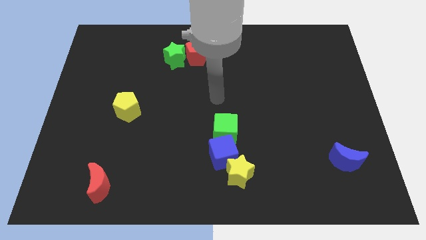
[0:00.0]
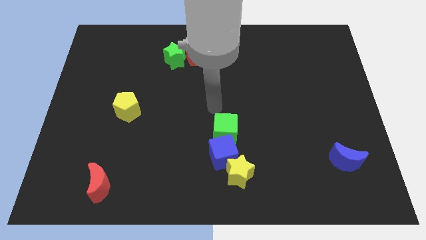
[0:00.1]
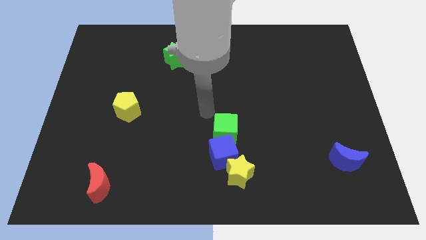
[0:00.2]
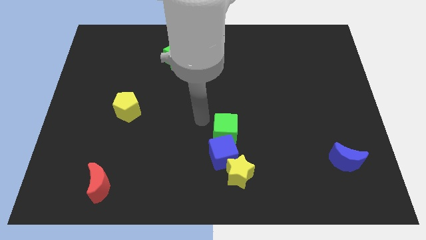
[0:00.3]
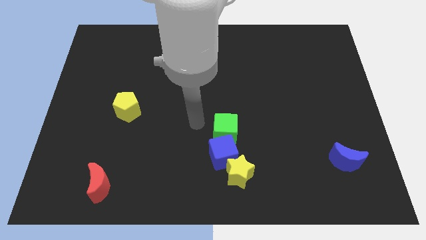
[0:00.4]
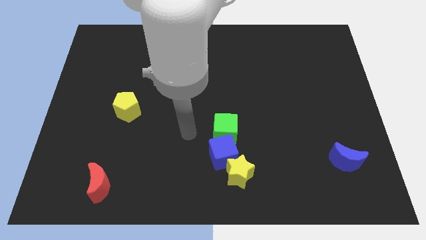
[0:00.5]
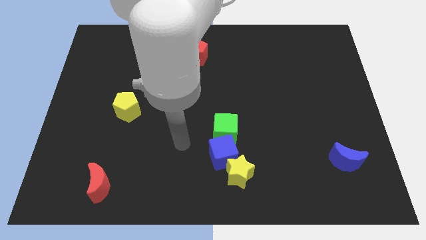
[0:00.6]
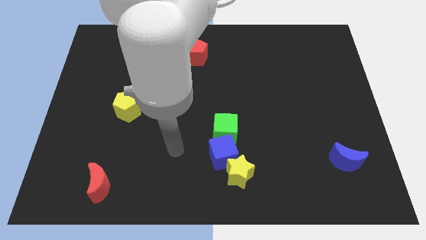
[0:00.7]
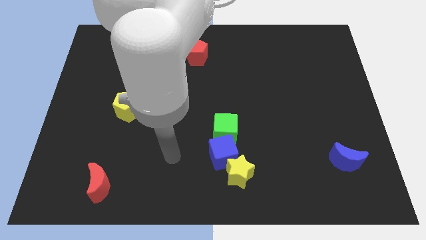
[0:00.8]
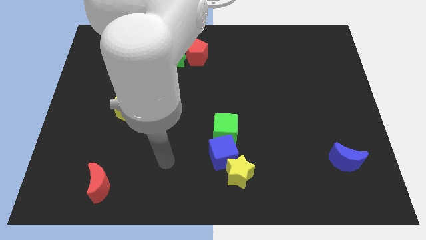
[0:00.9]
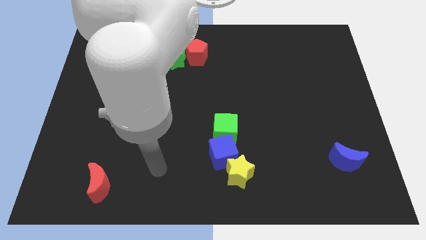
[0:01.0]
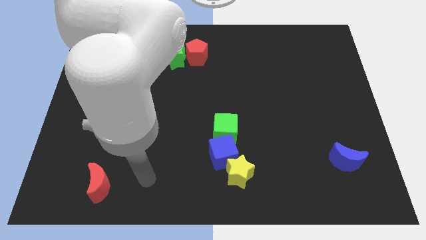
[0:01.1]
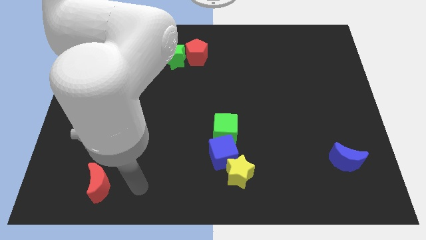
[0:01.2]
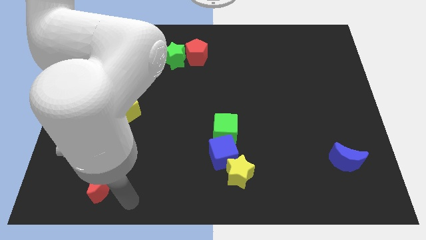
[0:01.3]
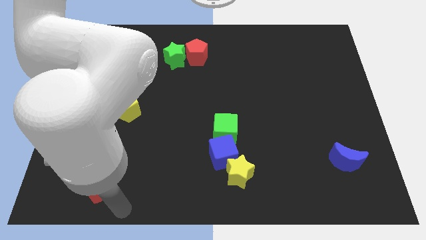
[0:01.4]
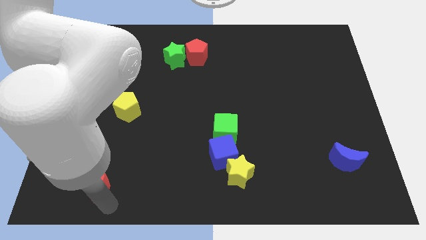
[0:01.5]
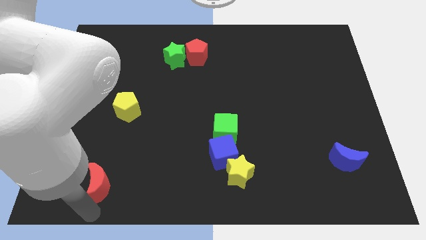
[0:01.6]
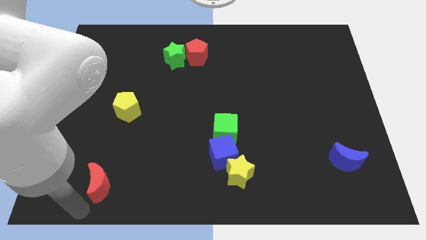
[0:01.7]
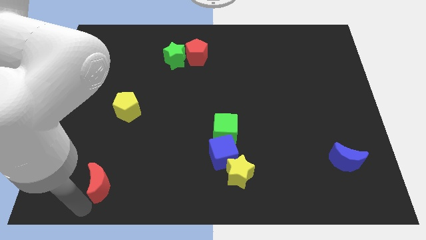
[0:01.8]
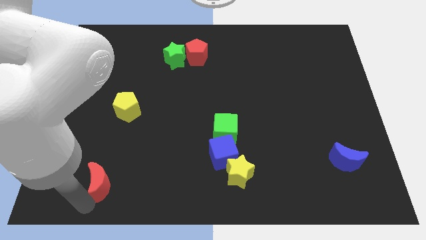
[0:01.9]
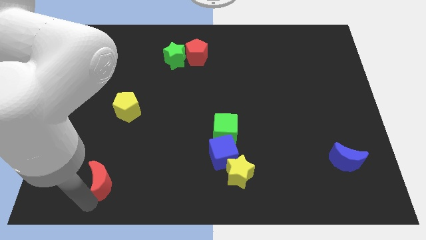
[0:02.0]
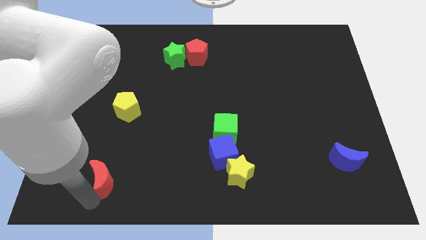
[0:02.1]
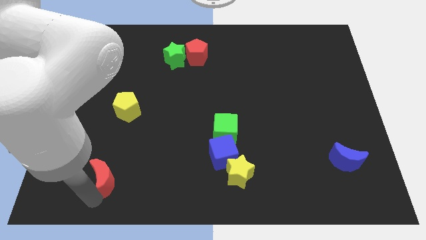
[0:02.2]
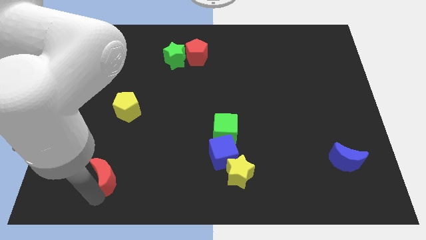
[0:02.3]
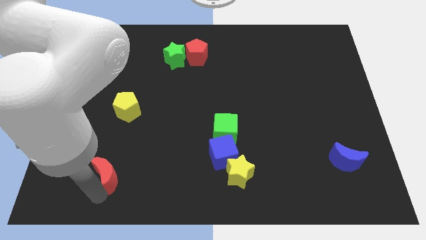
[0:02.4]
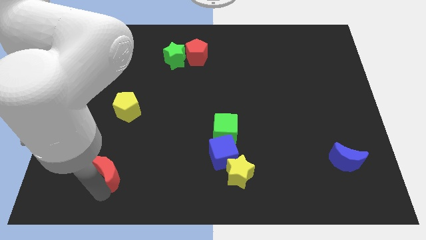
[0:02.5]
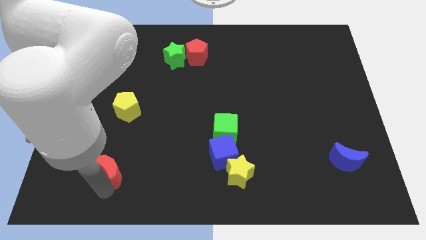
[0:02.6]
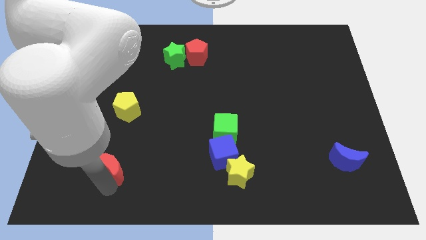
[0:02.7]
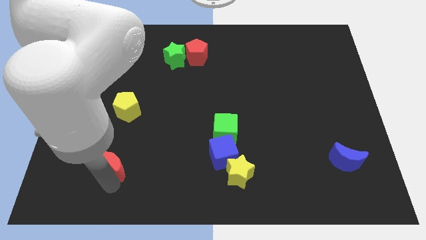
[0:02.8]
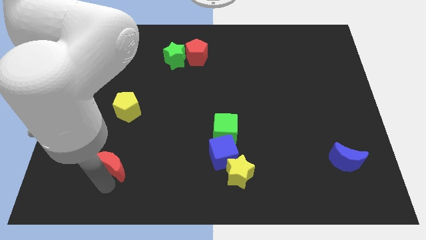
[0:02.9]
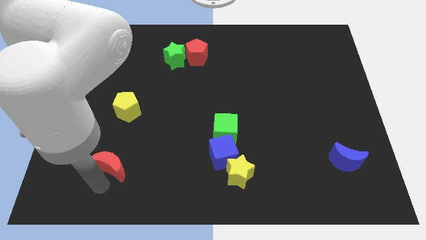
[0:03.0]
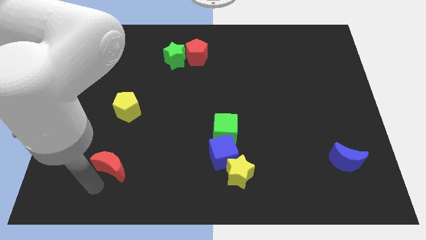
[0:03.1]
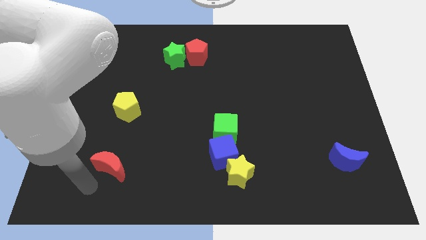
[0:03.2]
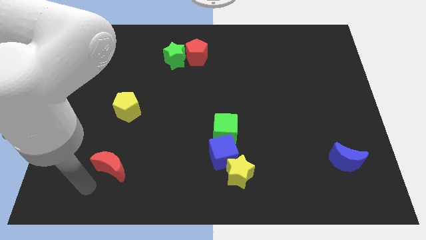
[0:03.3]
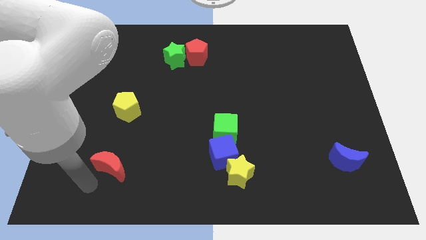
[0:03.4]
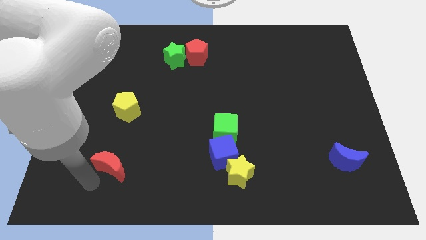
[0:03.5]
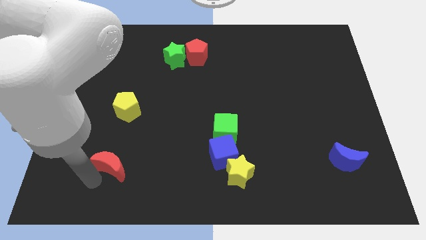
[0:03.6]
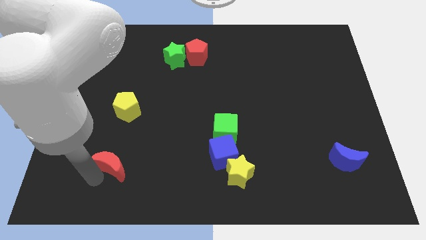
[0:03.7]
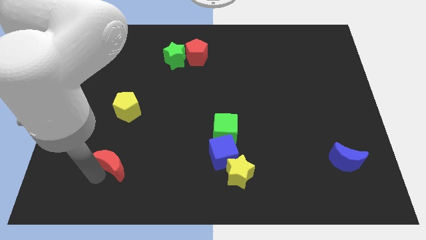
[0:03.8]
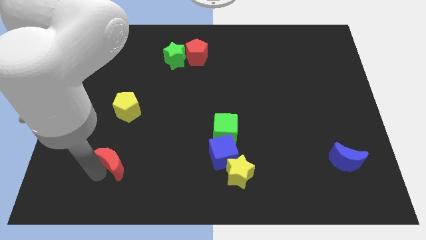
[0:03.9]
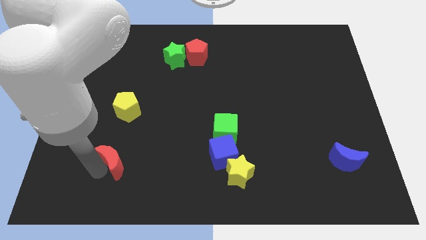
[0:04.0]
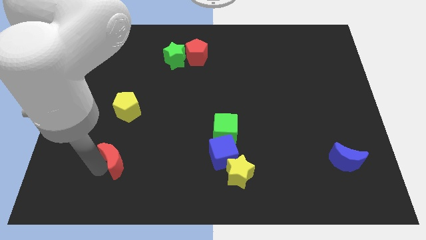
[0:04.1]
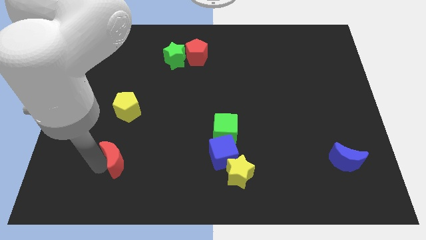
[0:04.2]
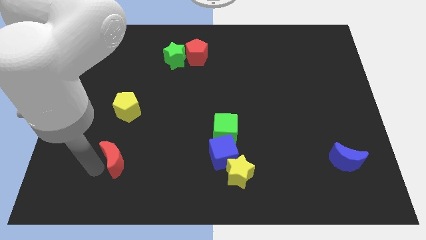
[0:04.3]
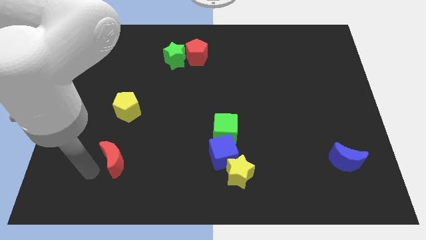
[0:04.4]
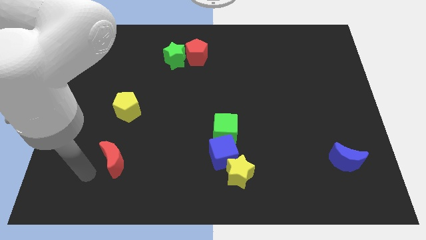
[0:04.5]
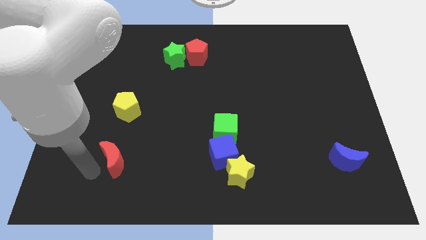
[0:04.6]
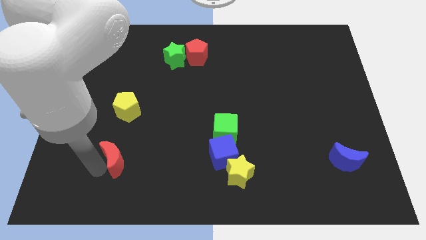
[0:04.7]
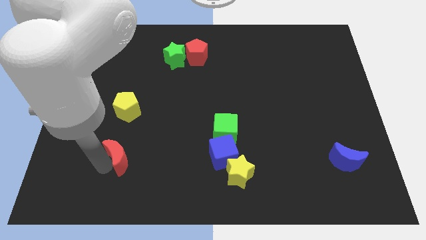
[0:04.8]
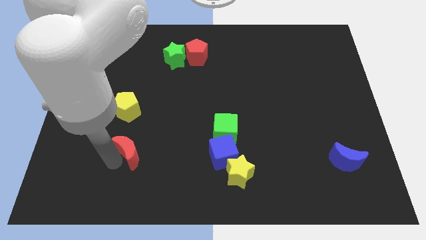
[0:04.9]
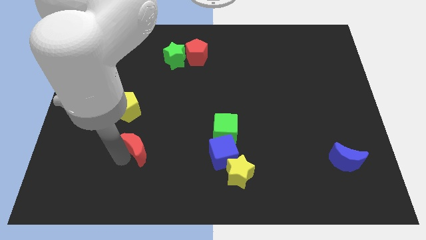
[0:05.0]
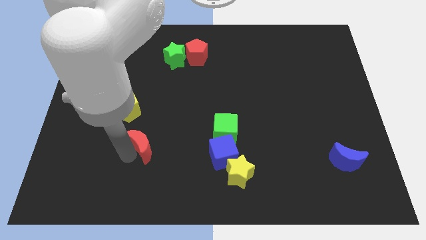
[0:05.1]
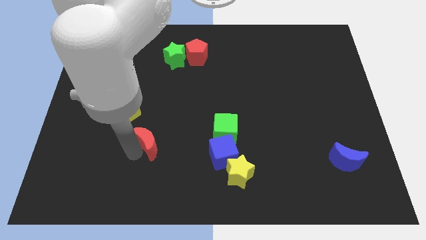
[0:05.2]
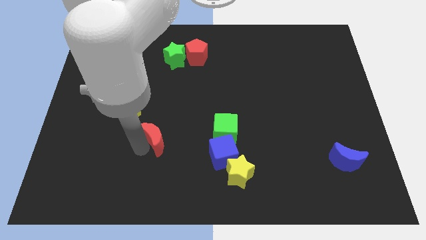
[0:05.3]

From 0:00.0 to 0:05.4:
push the red moon to the left side of the green cube

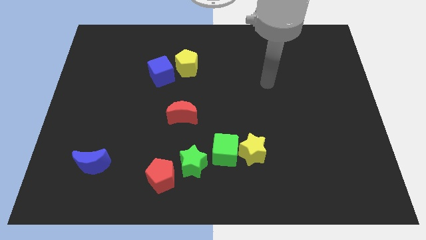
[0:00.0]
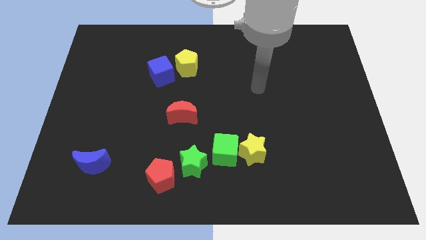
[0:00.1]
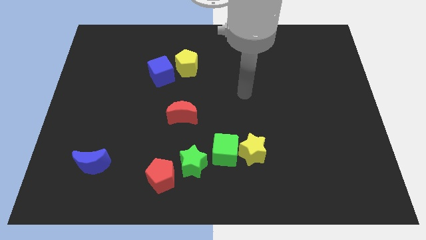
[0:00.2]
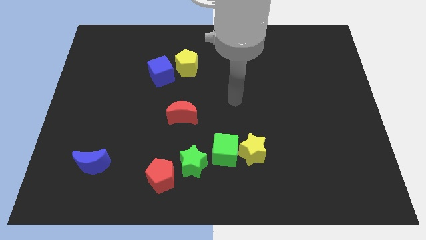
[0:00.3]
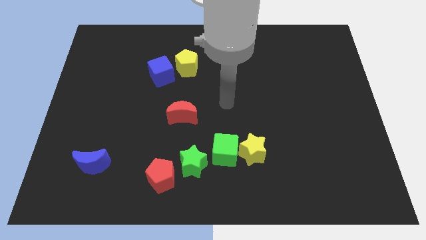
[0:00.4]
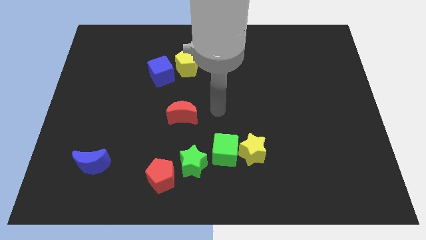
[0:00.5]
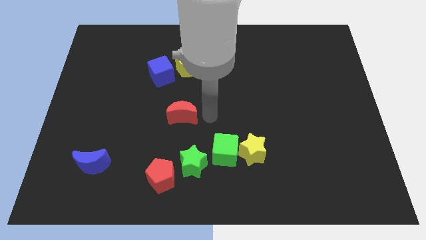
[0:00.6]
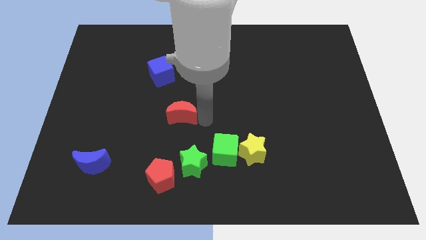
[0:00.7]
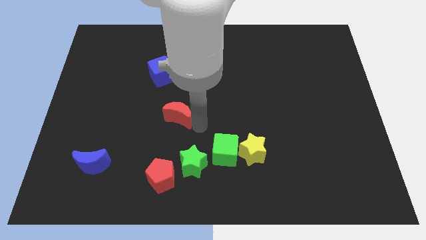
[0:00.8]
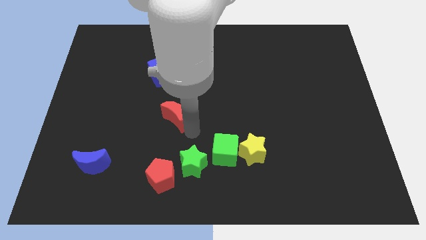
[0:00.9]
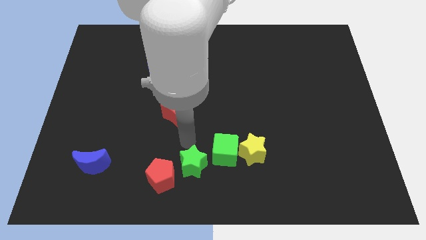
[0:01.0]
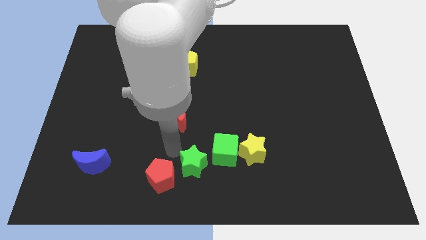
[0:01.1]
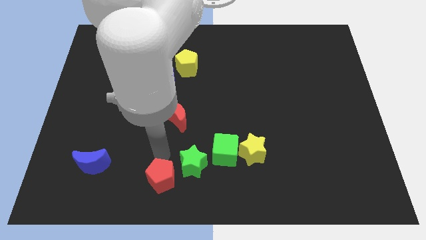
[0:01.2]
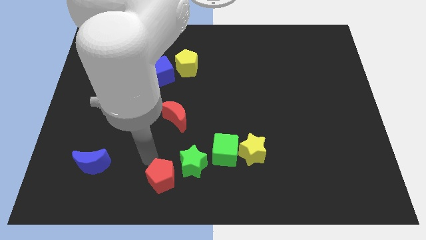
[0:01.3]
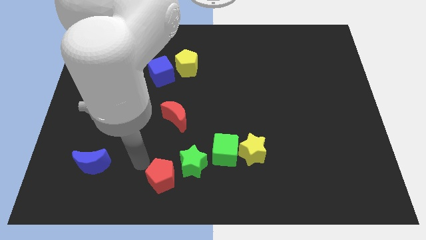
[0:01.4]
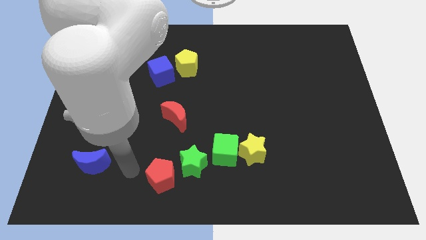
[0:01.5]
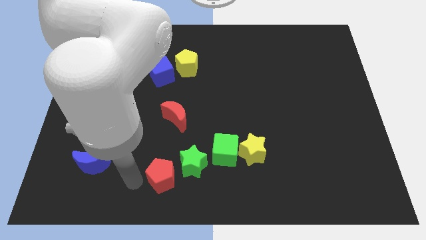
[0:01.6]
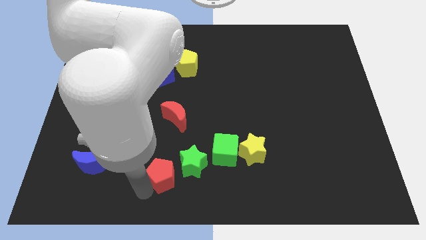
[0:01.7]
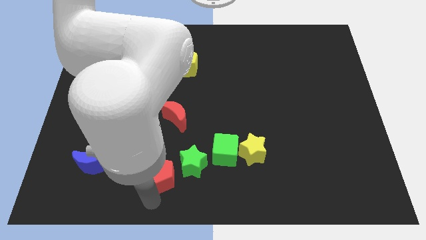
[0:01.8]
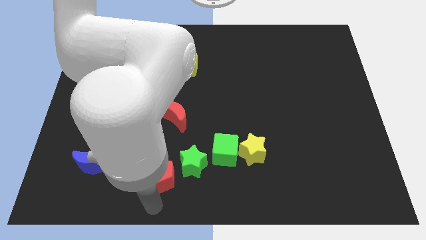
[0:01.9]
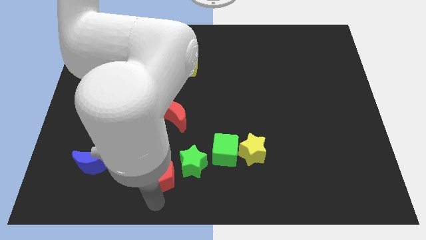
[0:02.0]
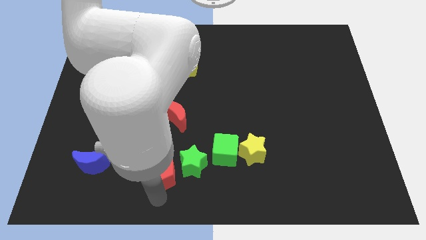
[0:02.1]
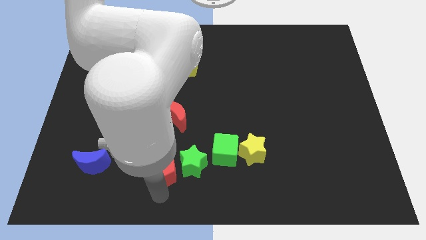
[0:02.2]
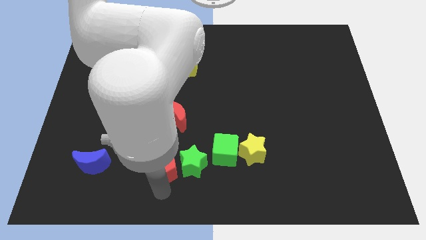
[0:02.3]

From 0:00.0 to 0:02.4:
put the red pentagon diagonally up and to the left of the green star
